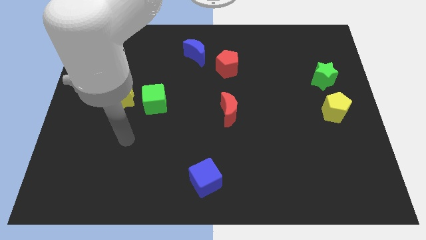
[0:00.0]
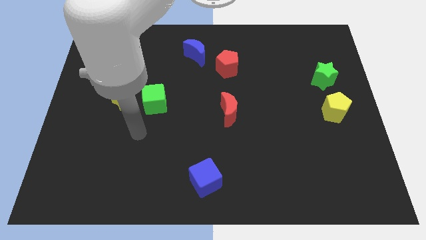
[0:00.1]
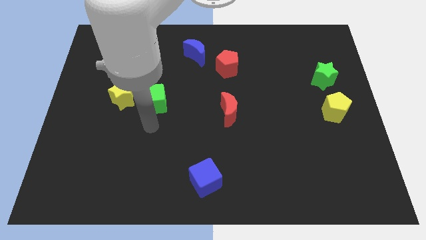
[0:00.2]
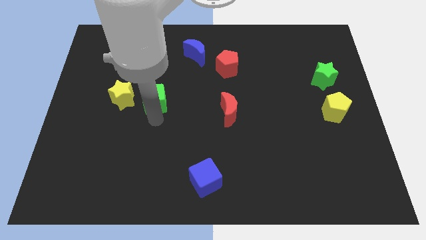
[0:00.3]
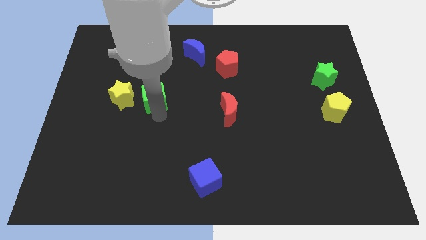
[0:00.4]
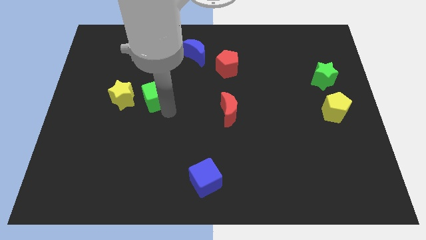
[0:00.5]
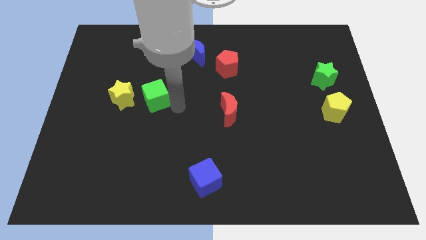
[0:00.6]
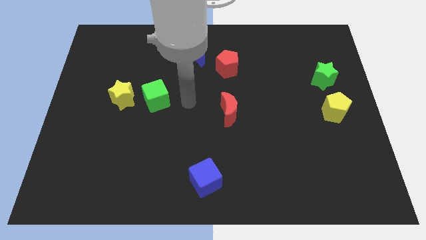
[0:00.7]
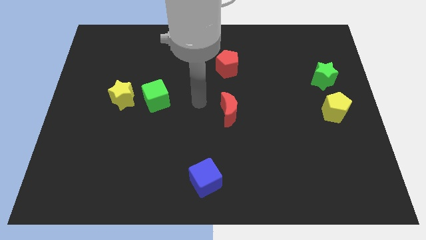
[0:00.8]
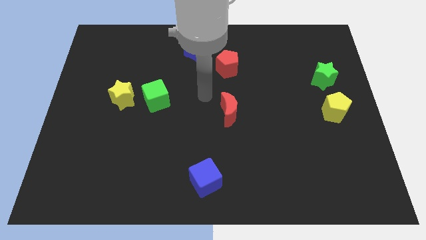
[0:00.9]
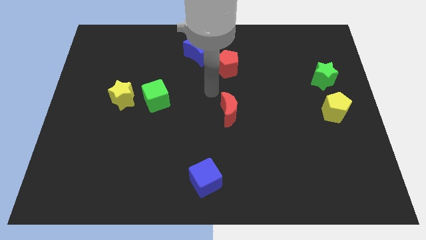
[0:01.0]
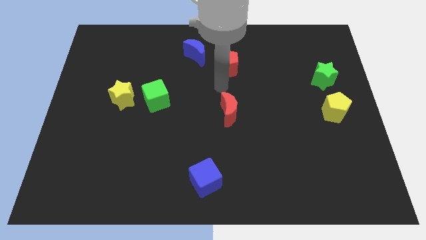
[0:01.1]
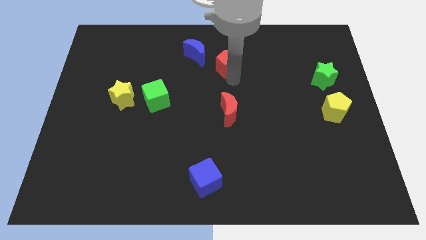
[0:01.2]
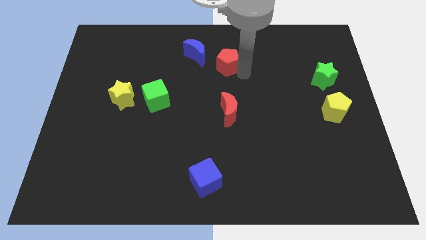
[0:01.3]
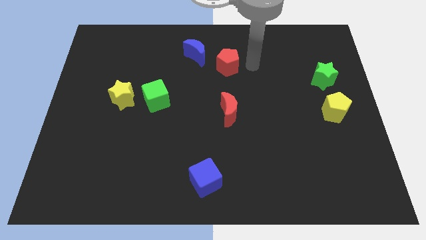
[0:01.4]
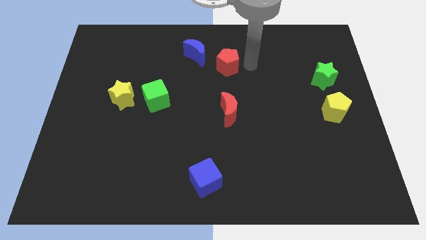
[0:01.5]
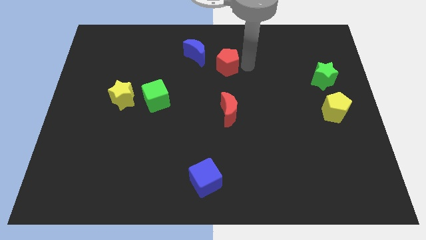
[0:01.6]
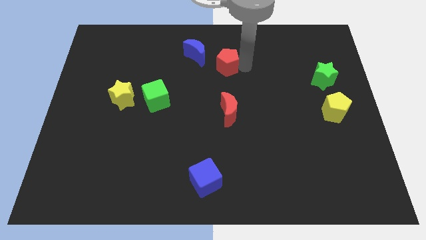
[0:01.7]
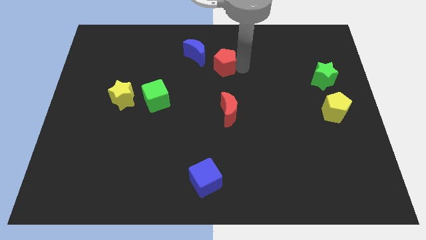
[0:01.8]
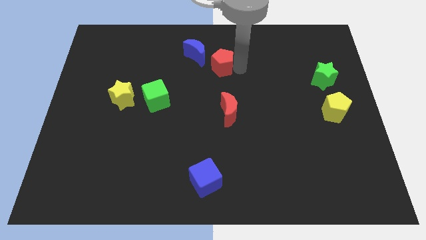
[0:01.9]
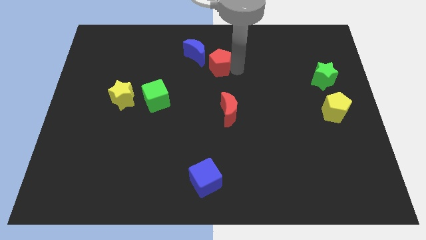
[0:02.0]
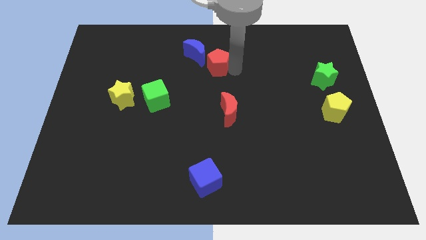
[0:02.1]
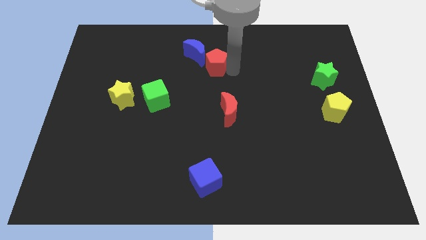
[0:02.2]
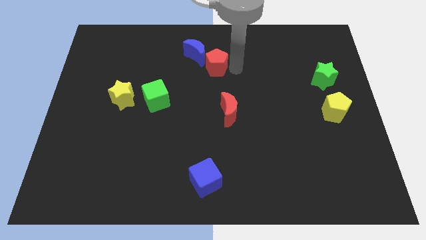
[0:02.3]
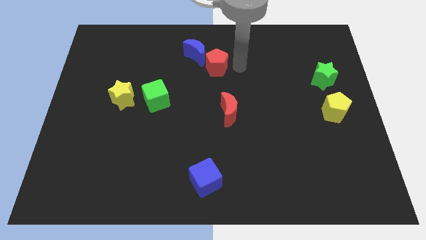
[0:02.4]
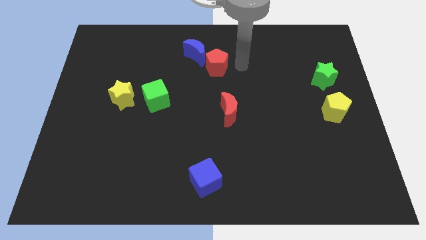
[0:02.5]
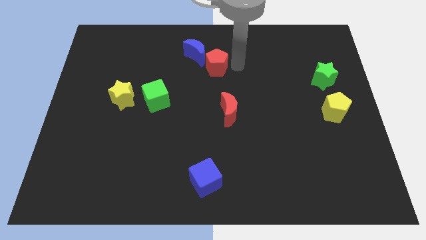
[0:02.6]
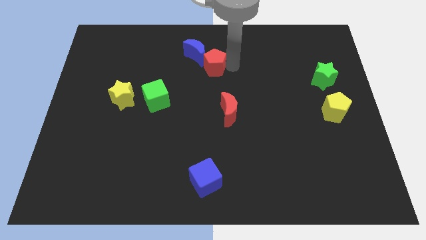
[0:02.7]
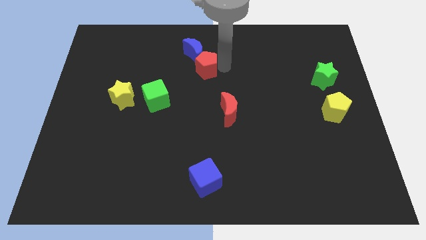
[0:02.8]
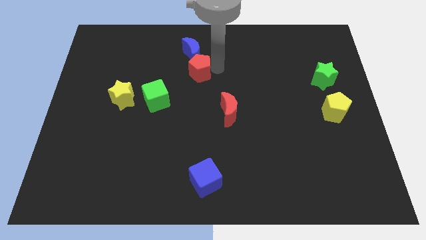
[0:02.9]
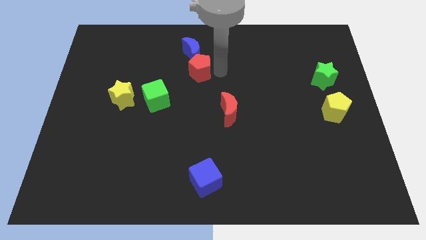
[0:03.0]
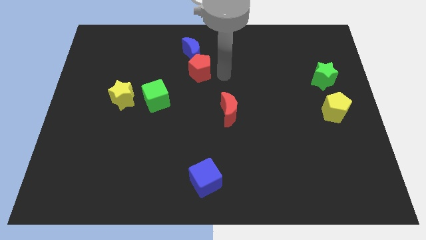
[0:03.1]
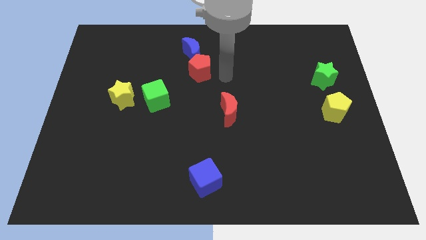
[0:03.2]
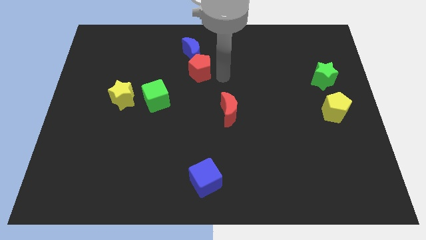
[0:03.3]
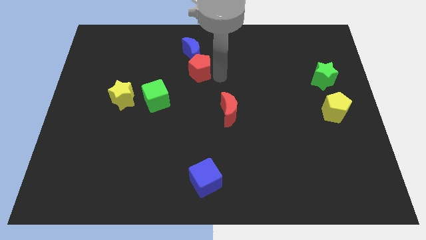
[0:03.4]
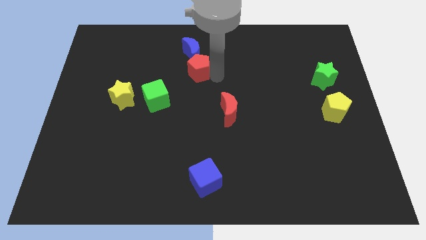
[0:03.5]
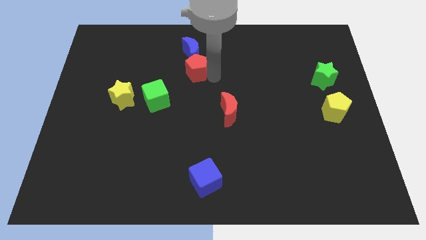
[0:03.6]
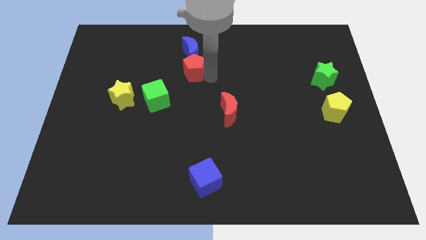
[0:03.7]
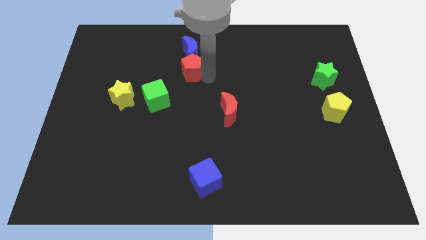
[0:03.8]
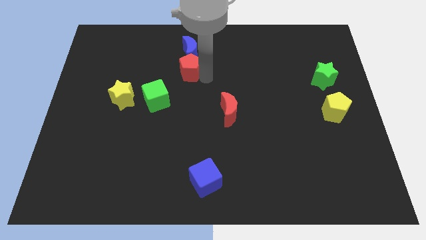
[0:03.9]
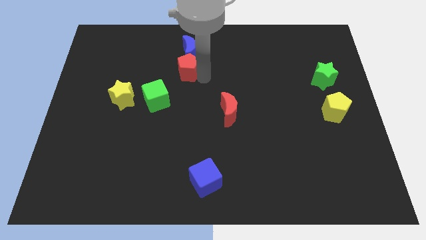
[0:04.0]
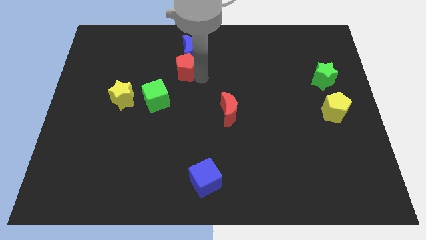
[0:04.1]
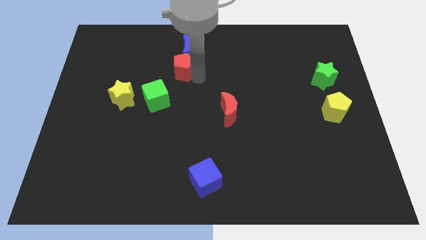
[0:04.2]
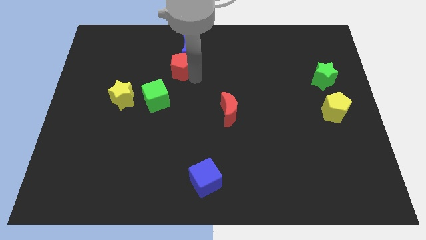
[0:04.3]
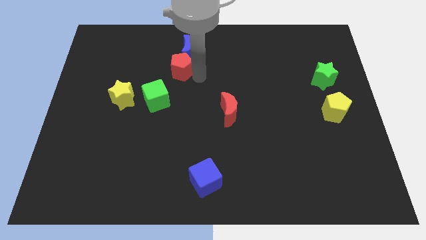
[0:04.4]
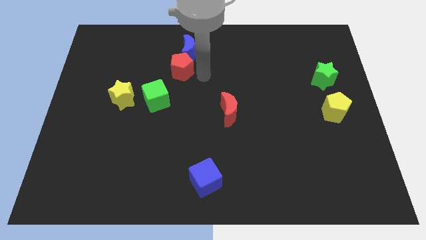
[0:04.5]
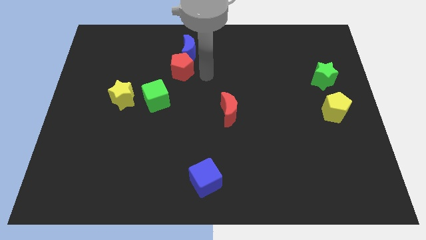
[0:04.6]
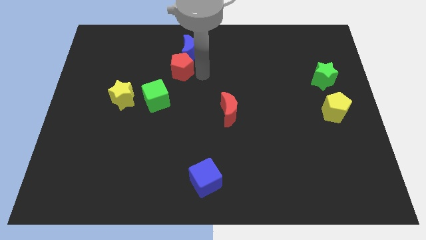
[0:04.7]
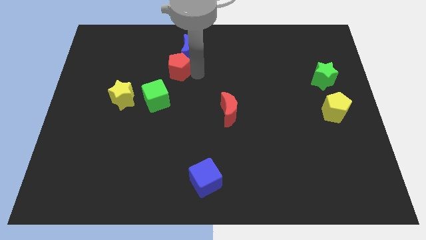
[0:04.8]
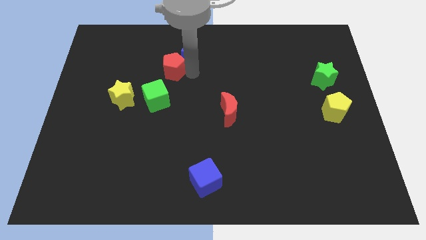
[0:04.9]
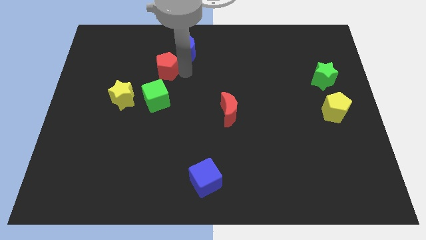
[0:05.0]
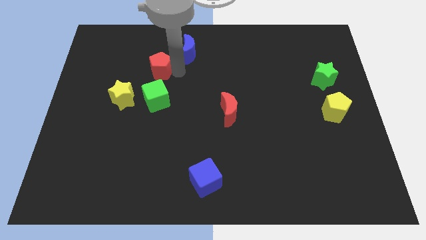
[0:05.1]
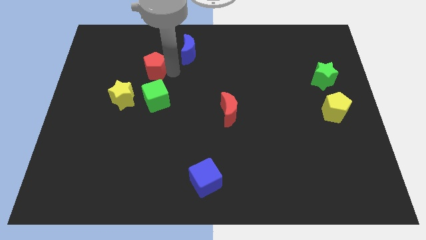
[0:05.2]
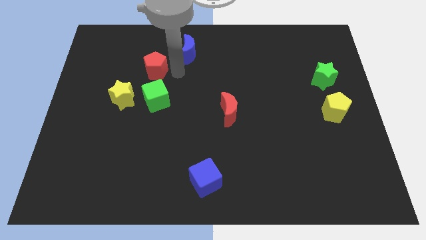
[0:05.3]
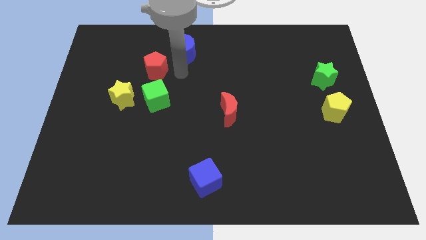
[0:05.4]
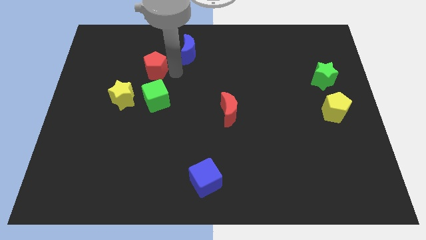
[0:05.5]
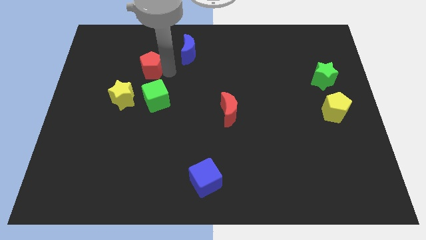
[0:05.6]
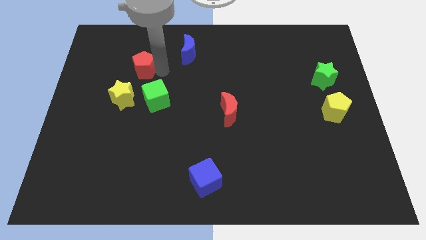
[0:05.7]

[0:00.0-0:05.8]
slide the red pentagon above the yellow star

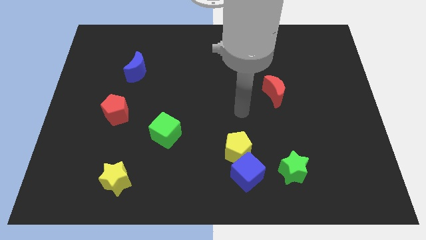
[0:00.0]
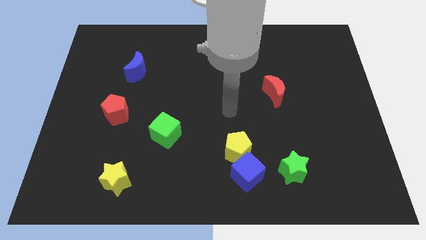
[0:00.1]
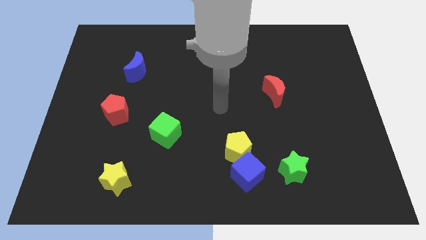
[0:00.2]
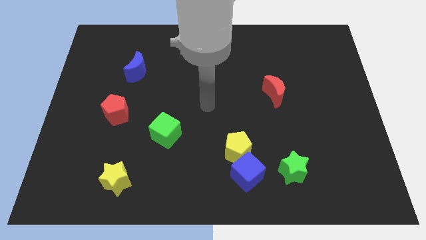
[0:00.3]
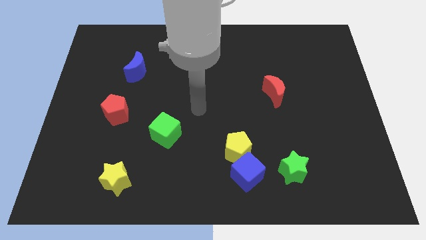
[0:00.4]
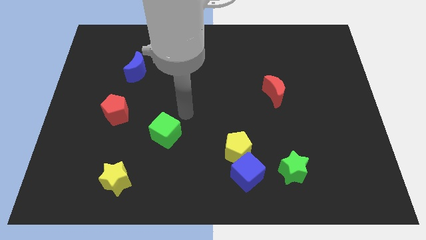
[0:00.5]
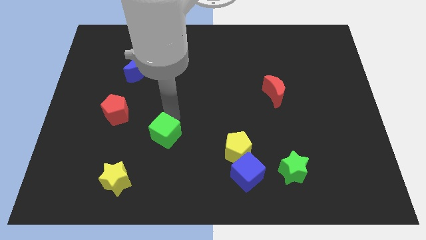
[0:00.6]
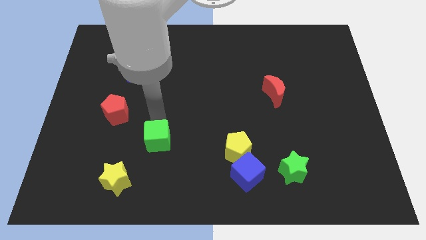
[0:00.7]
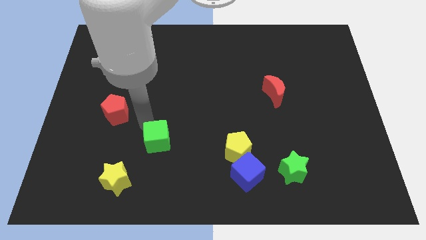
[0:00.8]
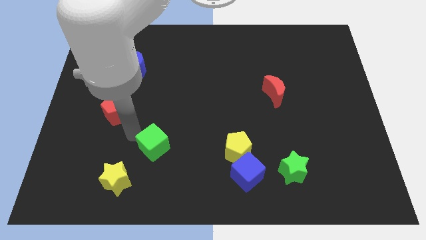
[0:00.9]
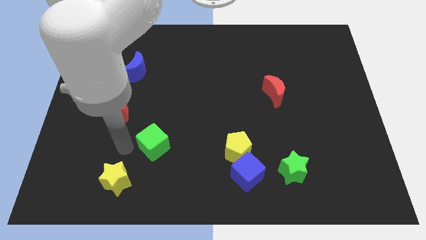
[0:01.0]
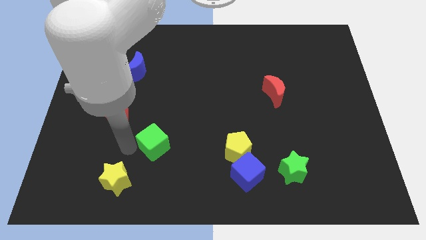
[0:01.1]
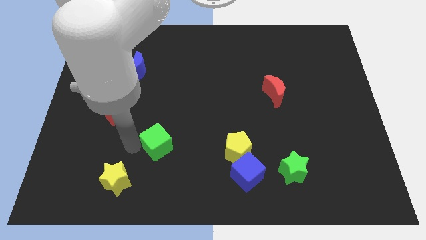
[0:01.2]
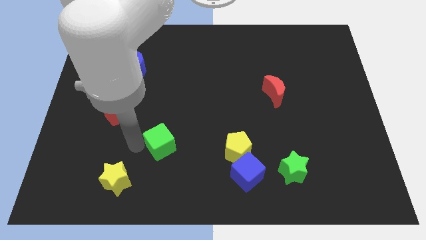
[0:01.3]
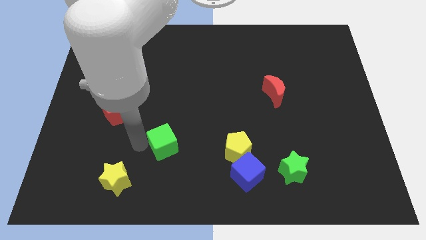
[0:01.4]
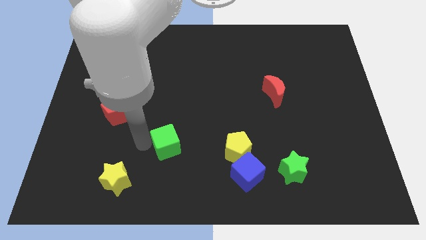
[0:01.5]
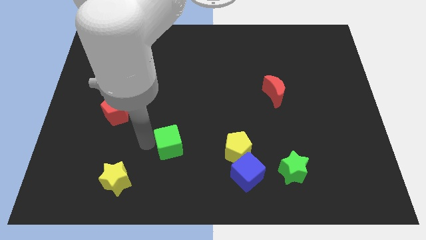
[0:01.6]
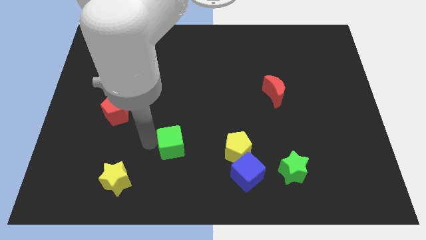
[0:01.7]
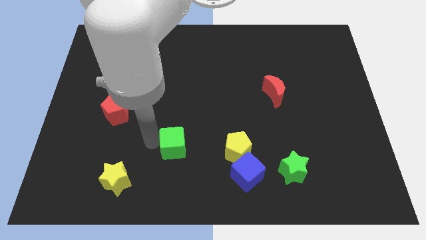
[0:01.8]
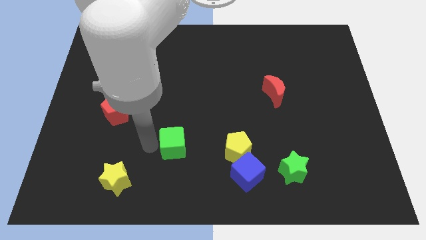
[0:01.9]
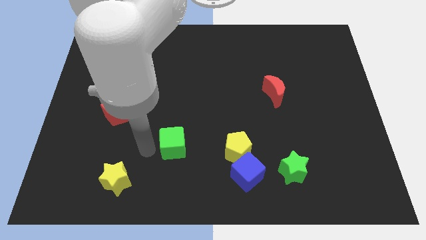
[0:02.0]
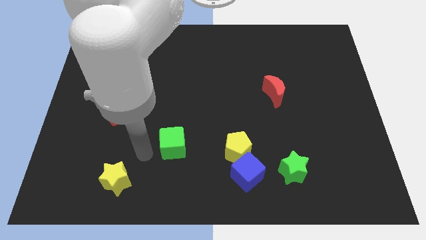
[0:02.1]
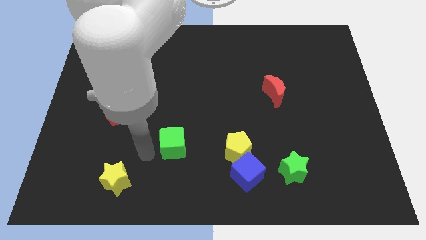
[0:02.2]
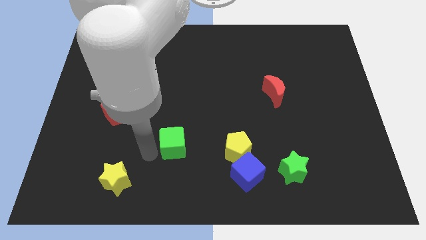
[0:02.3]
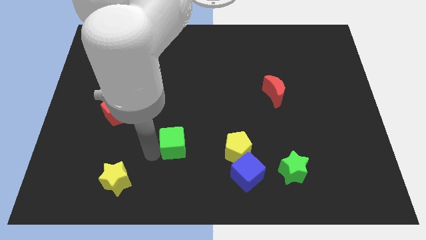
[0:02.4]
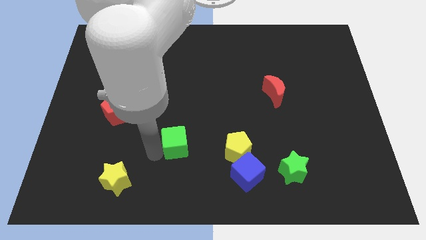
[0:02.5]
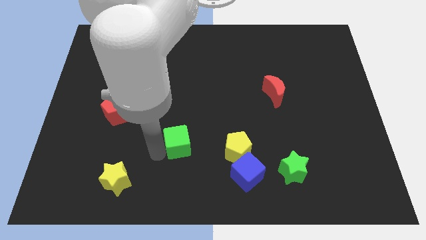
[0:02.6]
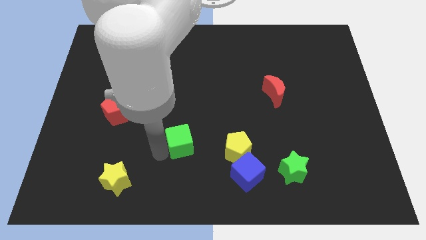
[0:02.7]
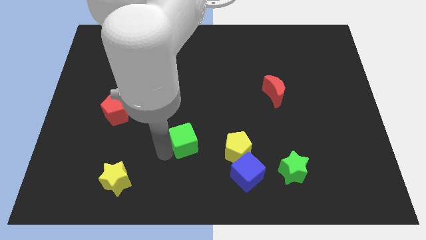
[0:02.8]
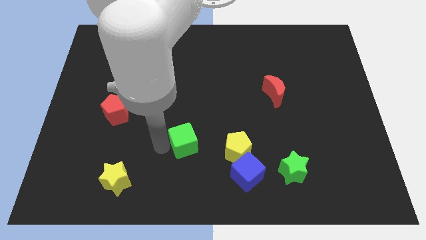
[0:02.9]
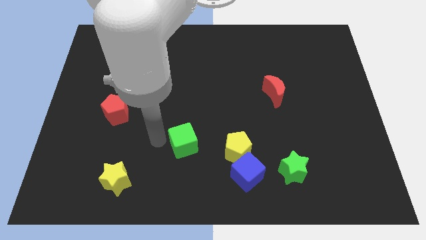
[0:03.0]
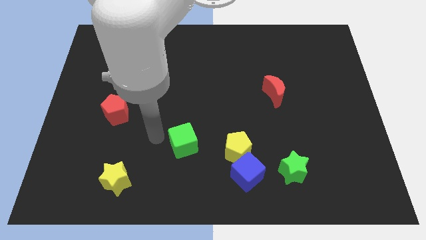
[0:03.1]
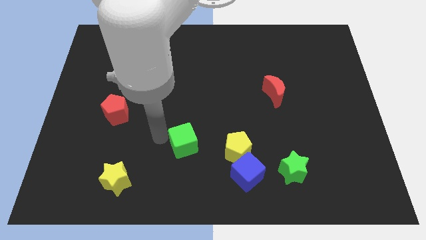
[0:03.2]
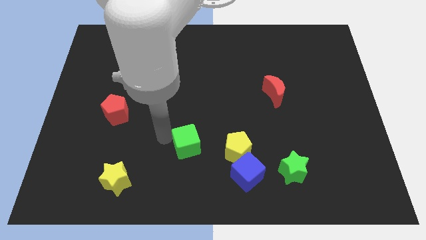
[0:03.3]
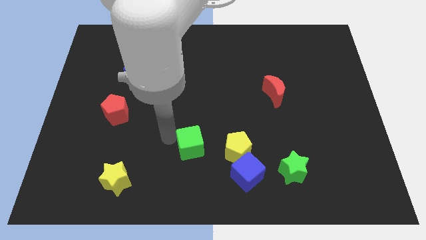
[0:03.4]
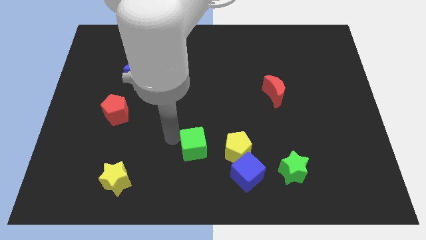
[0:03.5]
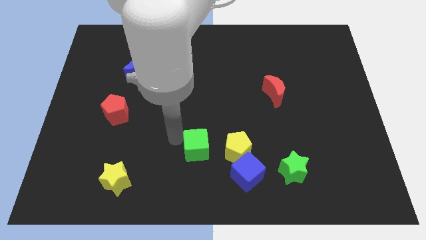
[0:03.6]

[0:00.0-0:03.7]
slide the green cube diagonally up and to the left of the blue cube
